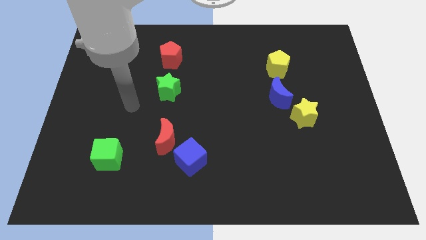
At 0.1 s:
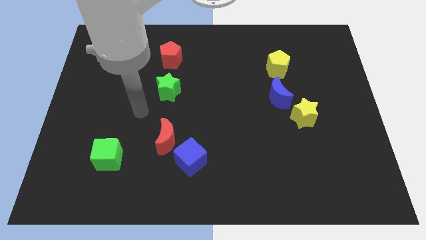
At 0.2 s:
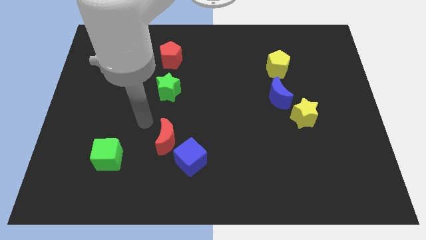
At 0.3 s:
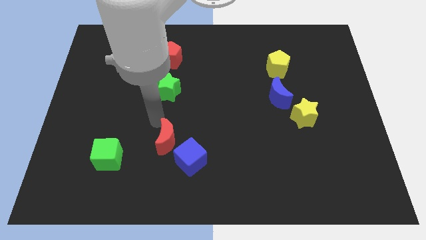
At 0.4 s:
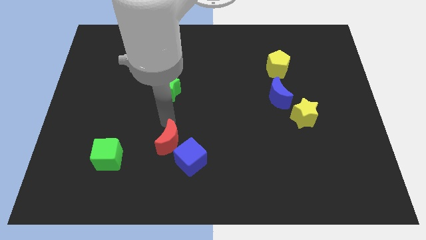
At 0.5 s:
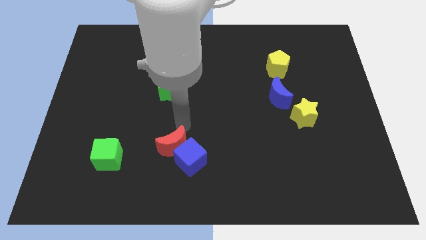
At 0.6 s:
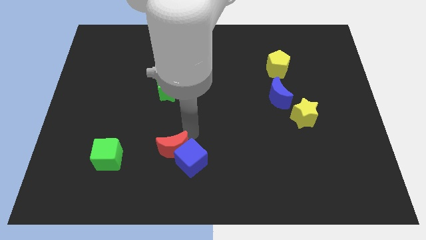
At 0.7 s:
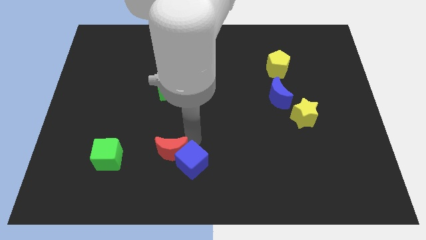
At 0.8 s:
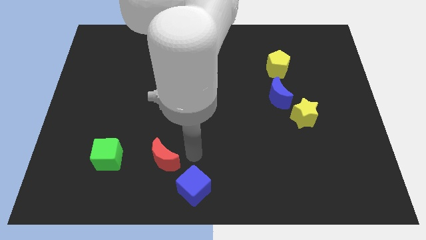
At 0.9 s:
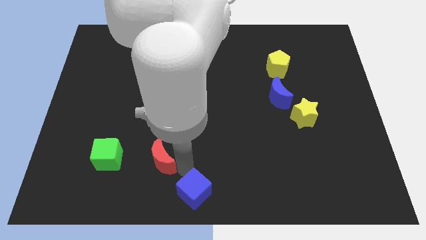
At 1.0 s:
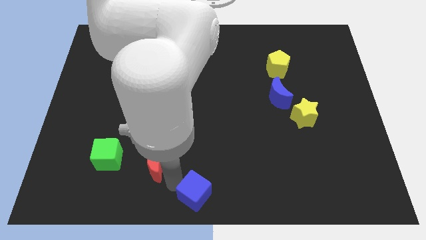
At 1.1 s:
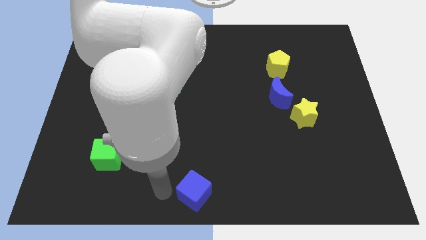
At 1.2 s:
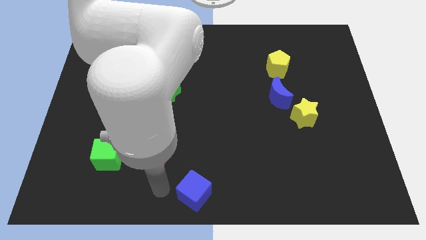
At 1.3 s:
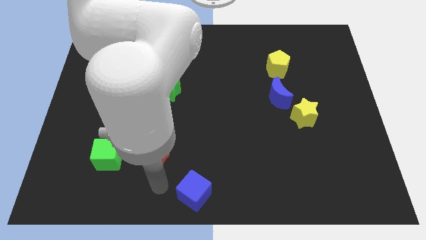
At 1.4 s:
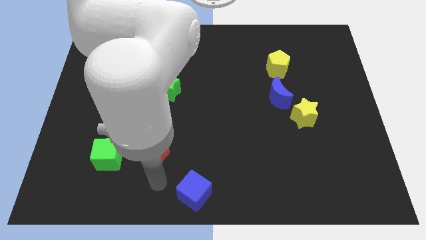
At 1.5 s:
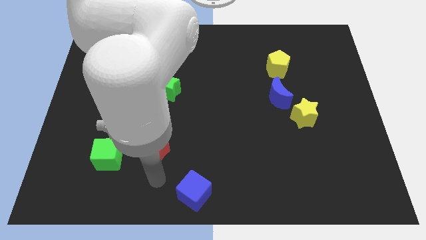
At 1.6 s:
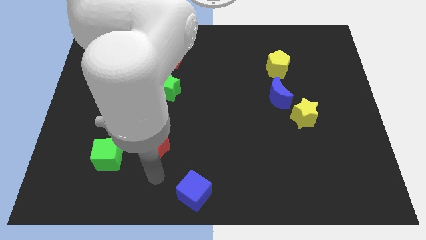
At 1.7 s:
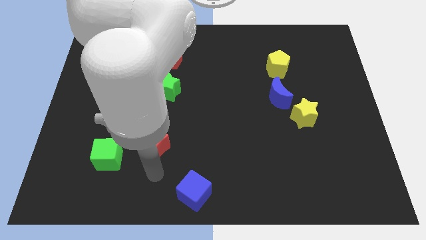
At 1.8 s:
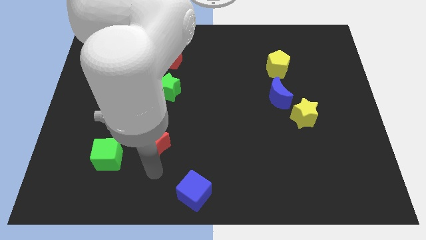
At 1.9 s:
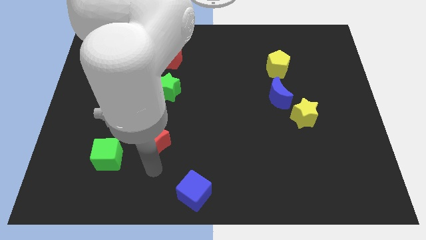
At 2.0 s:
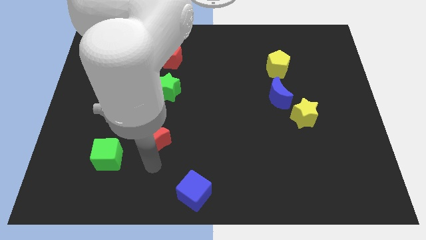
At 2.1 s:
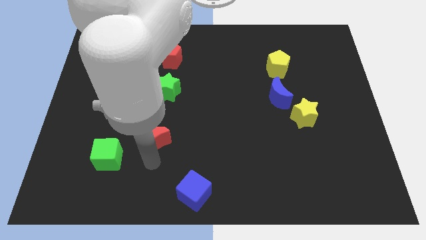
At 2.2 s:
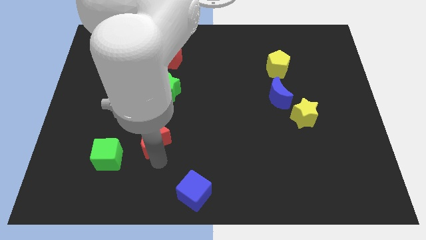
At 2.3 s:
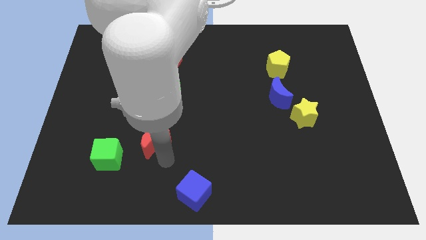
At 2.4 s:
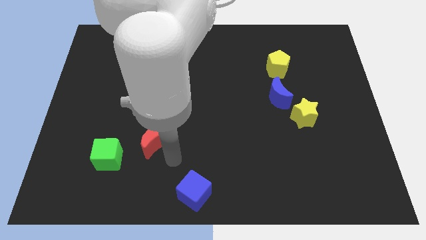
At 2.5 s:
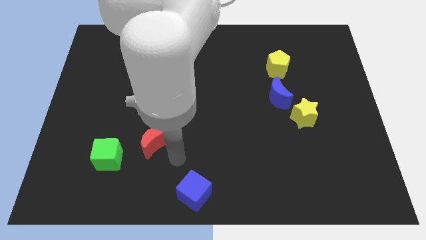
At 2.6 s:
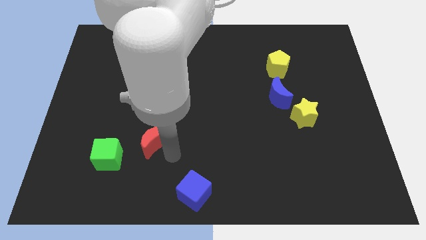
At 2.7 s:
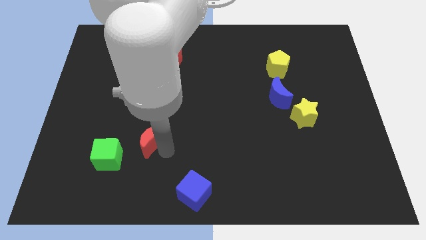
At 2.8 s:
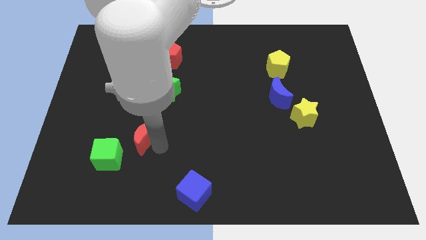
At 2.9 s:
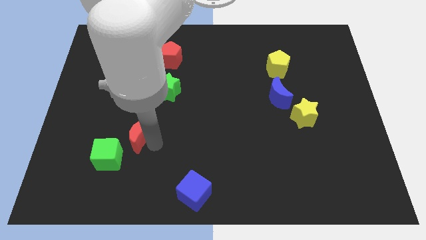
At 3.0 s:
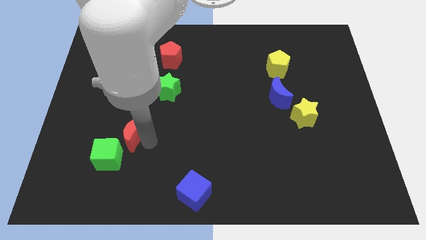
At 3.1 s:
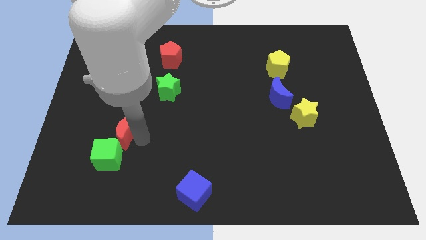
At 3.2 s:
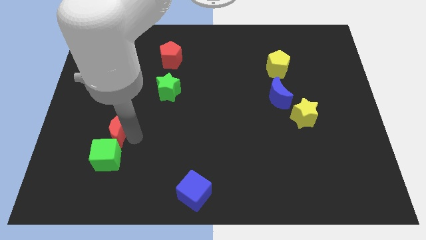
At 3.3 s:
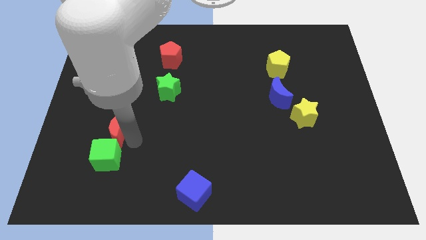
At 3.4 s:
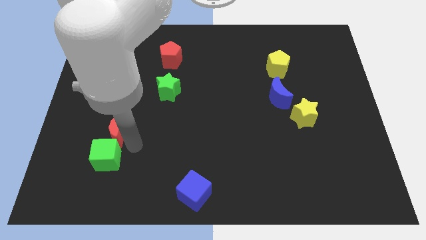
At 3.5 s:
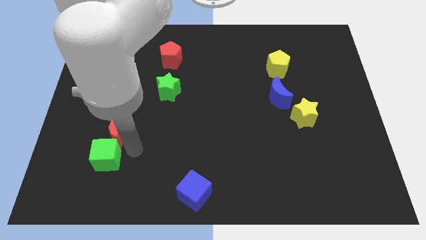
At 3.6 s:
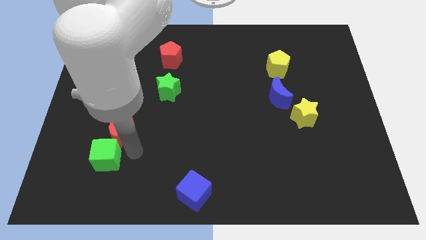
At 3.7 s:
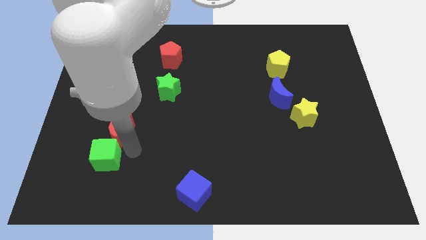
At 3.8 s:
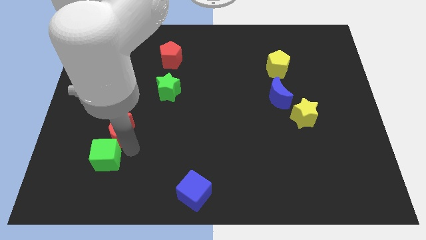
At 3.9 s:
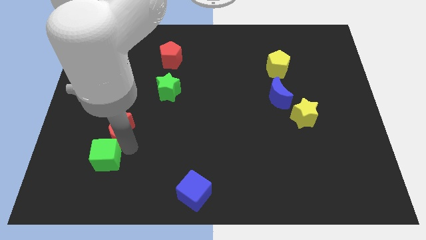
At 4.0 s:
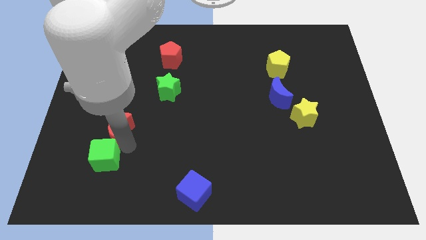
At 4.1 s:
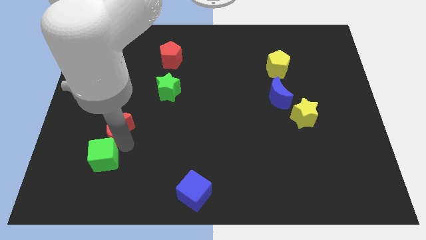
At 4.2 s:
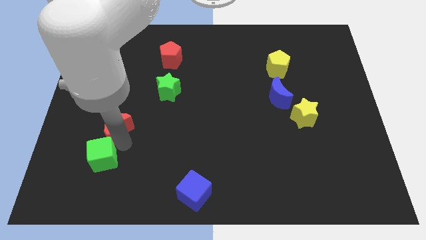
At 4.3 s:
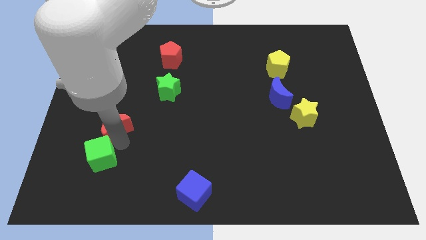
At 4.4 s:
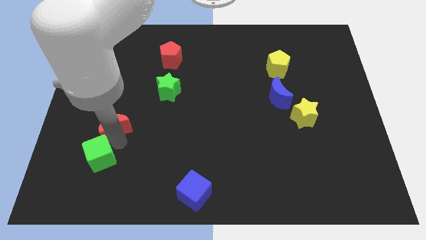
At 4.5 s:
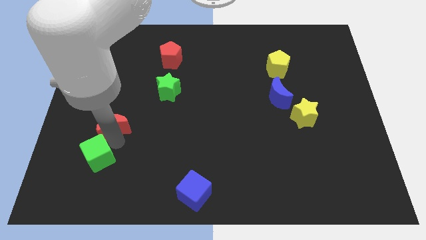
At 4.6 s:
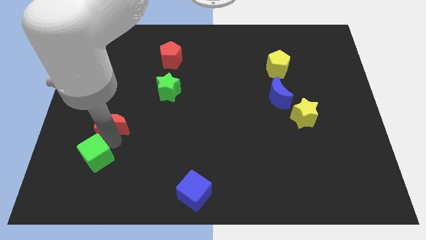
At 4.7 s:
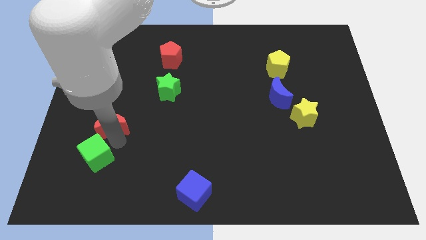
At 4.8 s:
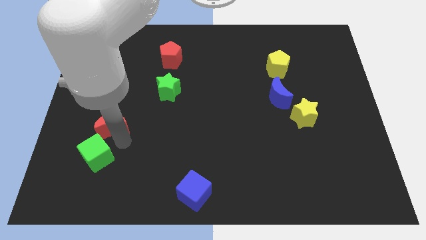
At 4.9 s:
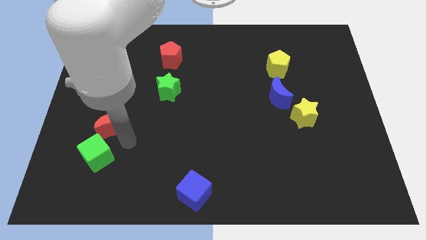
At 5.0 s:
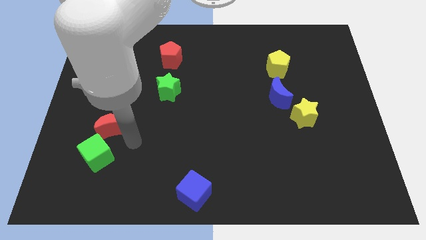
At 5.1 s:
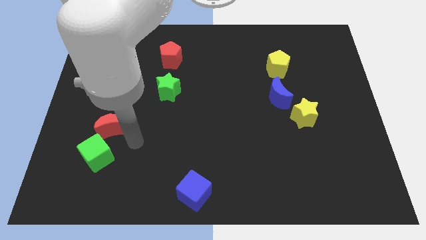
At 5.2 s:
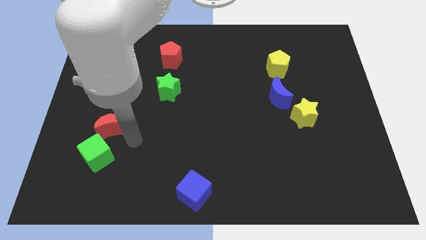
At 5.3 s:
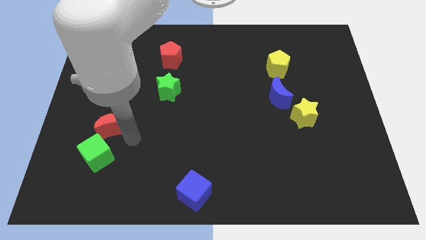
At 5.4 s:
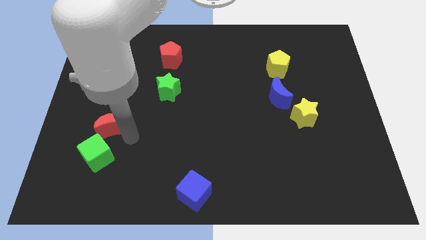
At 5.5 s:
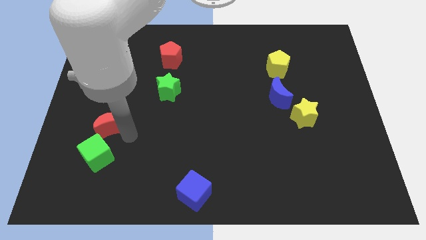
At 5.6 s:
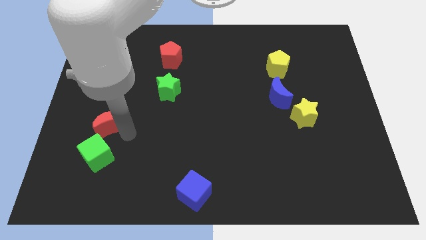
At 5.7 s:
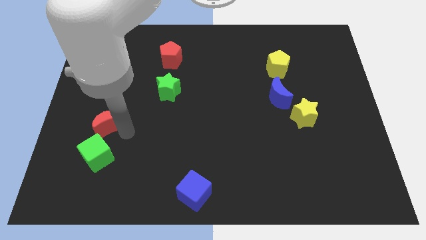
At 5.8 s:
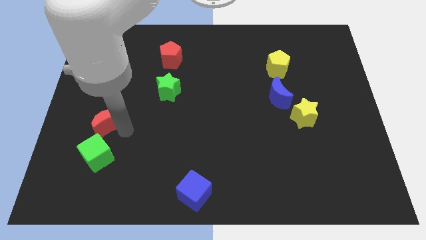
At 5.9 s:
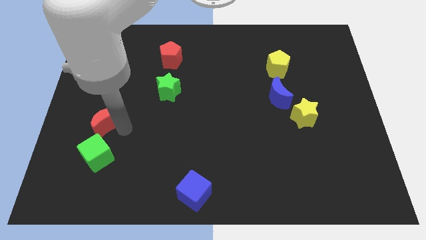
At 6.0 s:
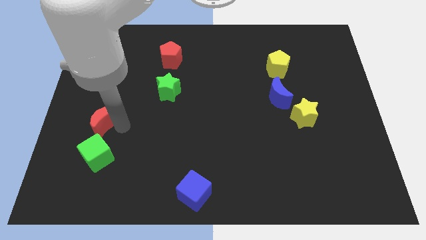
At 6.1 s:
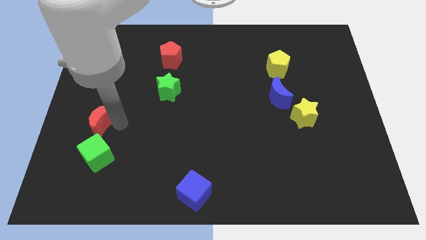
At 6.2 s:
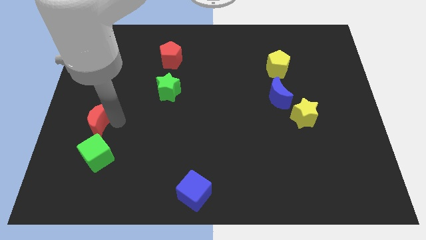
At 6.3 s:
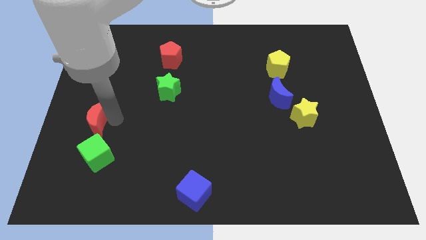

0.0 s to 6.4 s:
put the red moon to the center left
